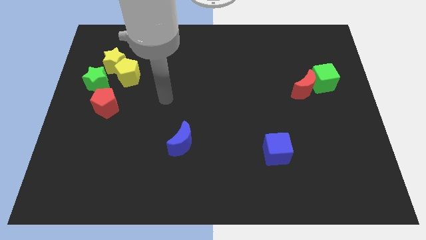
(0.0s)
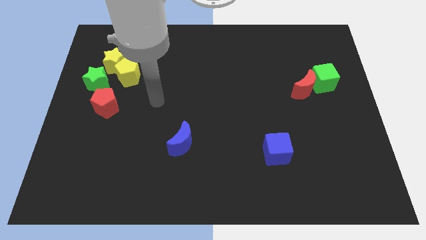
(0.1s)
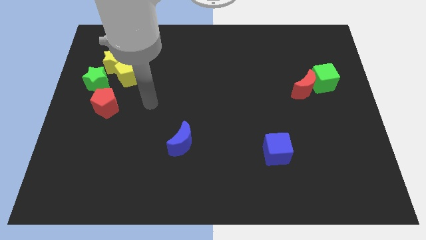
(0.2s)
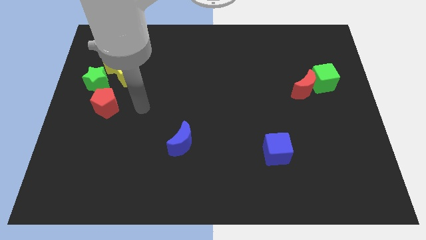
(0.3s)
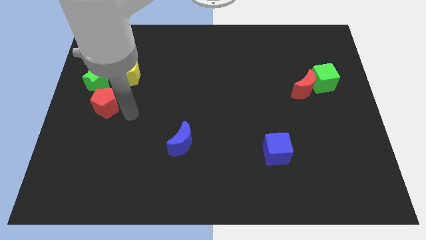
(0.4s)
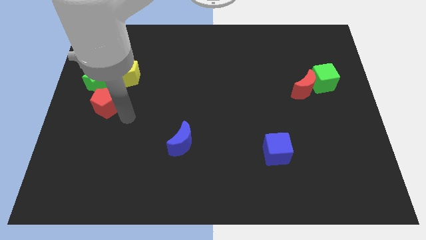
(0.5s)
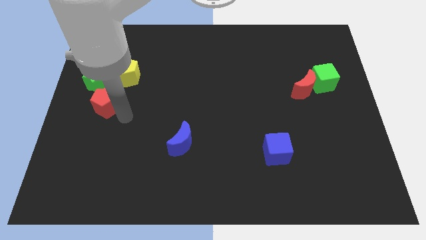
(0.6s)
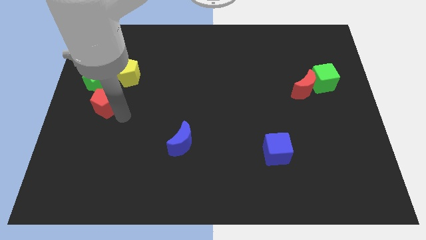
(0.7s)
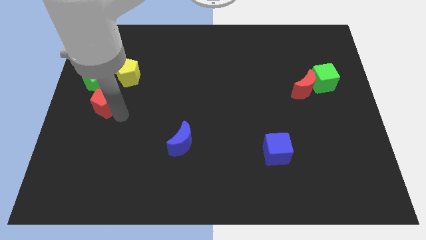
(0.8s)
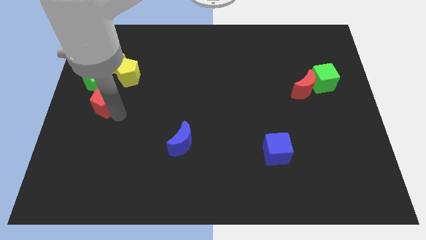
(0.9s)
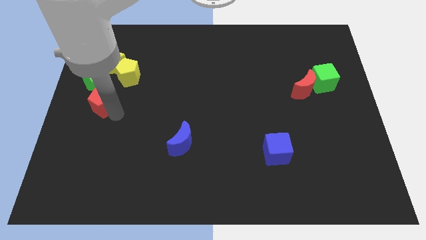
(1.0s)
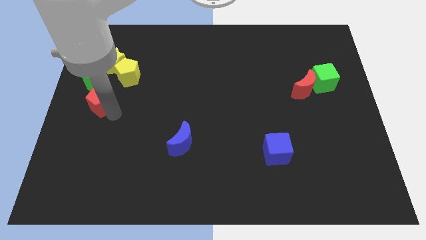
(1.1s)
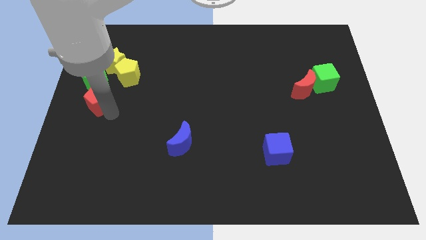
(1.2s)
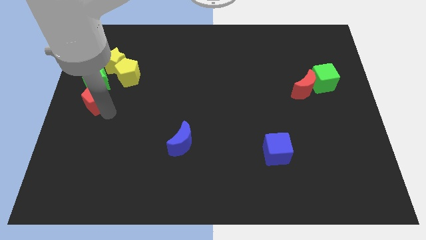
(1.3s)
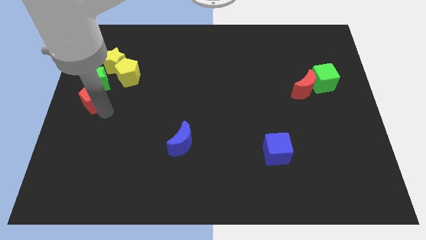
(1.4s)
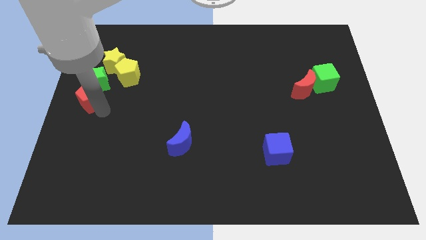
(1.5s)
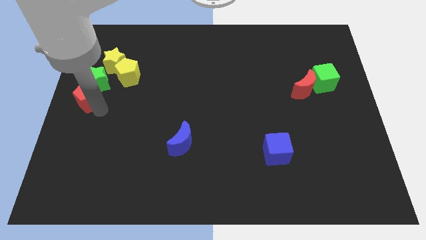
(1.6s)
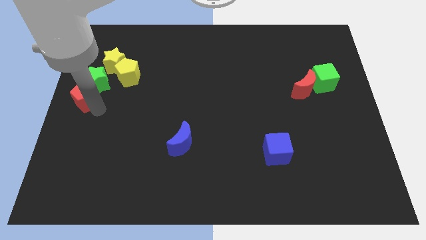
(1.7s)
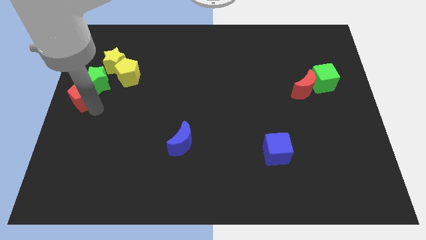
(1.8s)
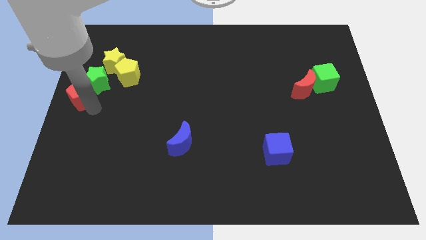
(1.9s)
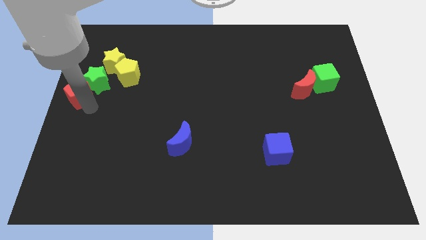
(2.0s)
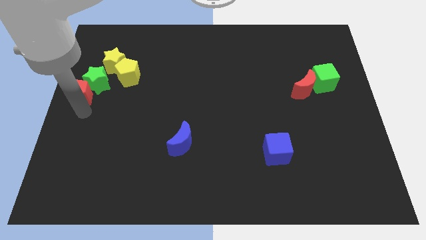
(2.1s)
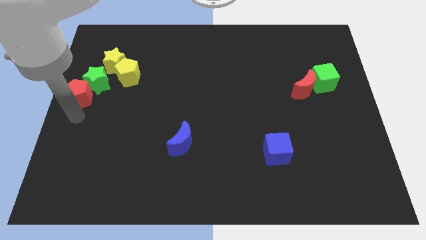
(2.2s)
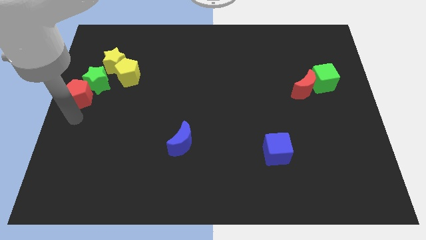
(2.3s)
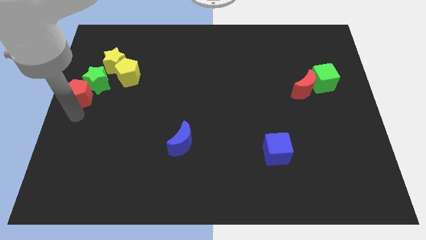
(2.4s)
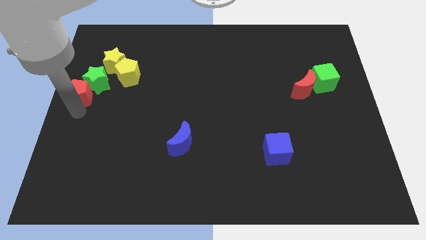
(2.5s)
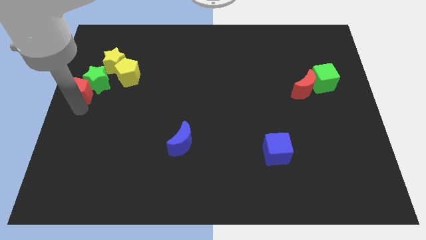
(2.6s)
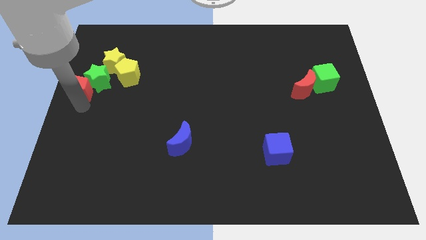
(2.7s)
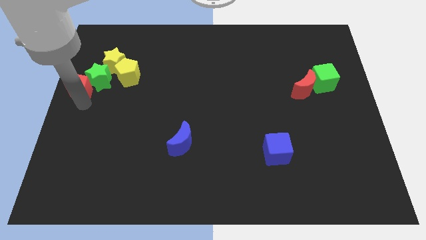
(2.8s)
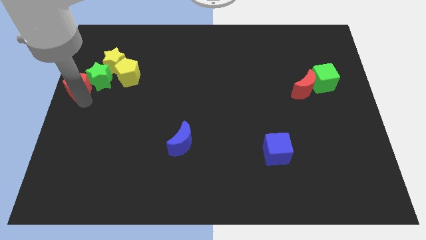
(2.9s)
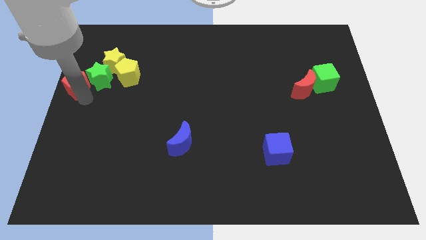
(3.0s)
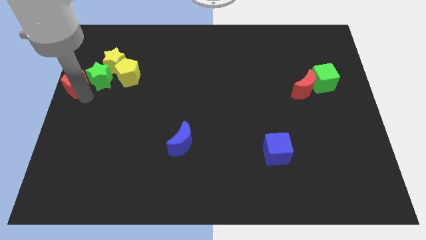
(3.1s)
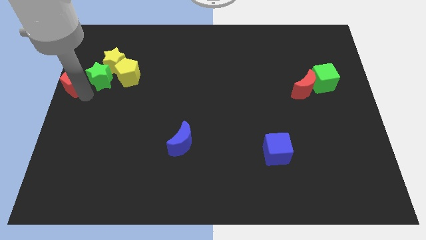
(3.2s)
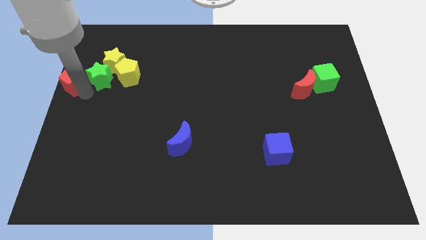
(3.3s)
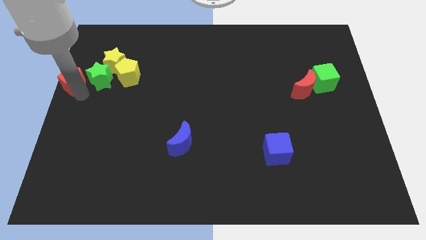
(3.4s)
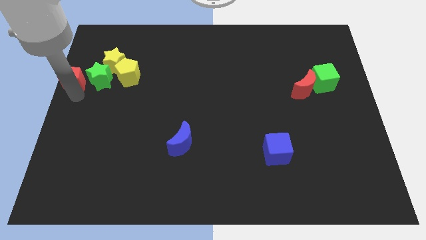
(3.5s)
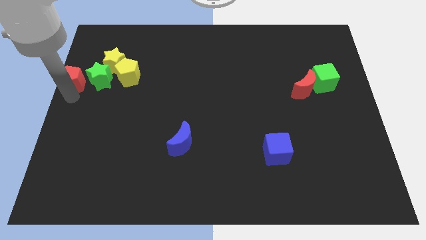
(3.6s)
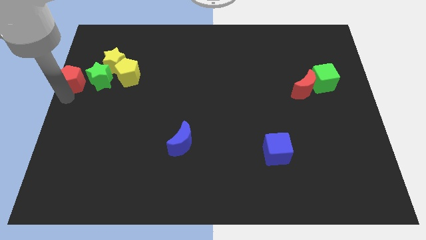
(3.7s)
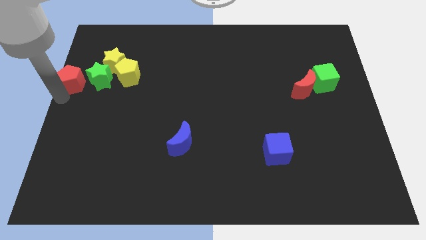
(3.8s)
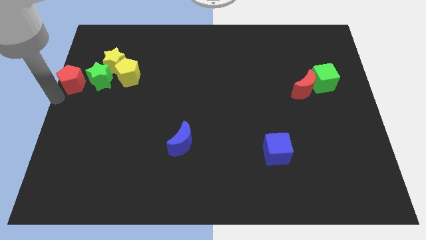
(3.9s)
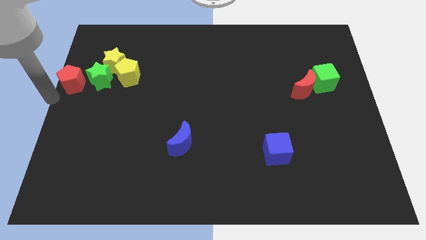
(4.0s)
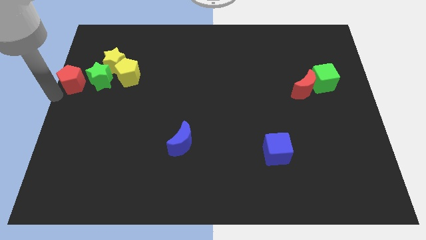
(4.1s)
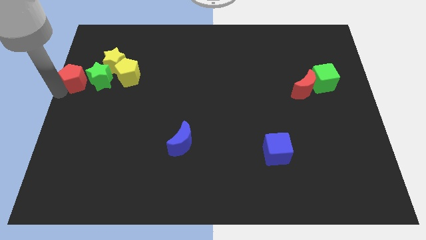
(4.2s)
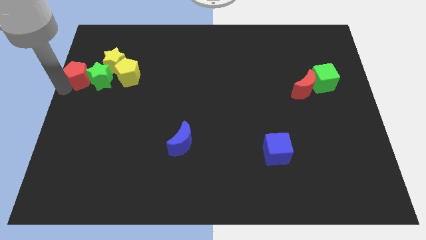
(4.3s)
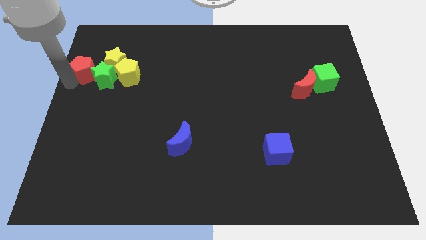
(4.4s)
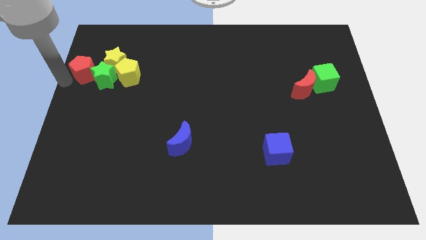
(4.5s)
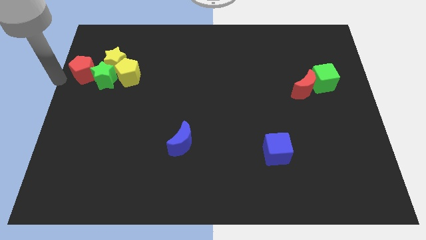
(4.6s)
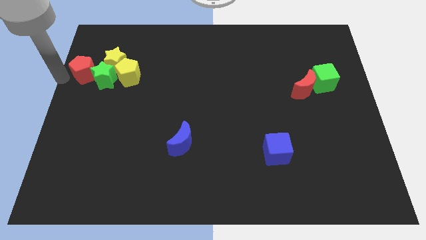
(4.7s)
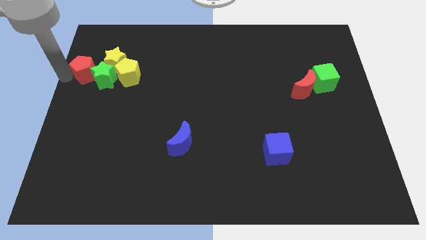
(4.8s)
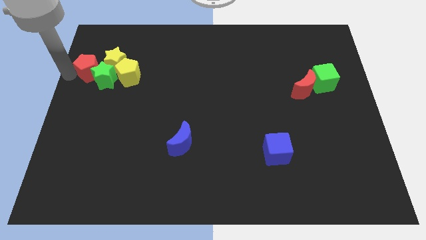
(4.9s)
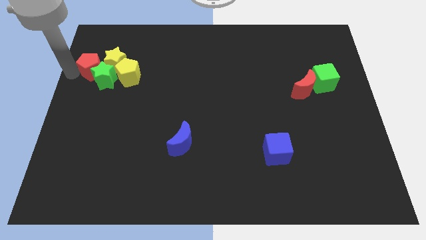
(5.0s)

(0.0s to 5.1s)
move the red pentagon to the yellow star
